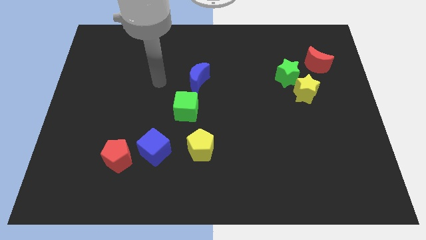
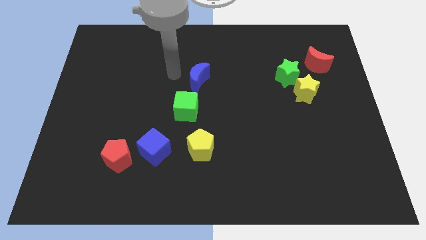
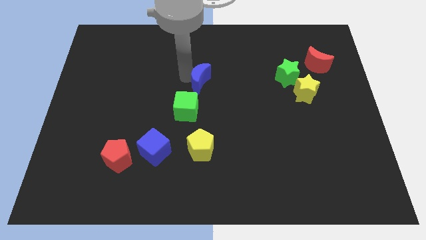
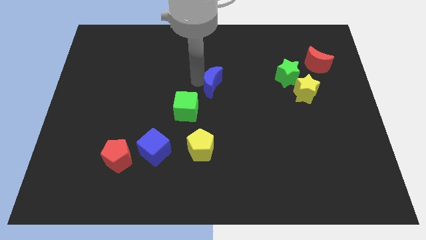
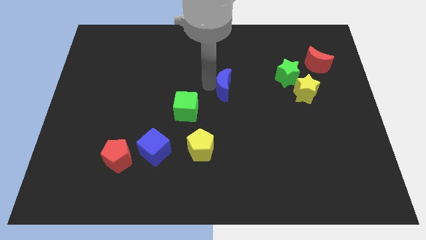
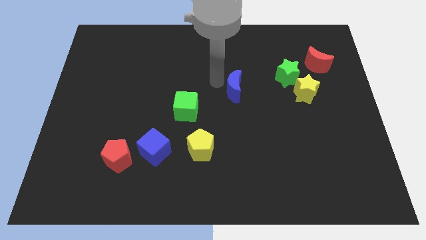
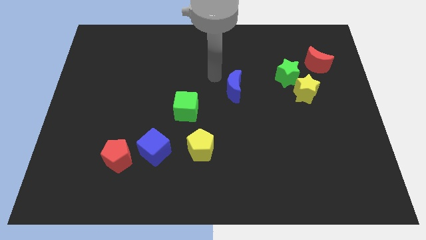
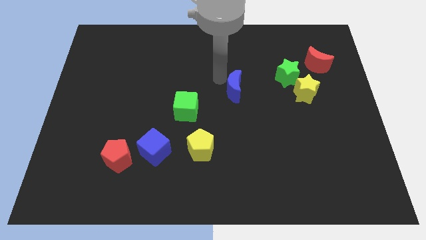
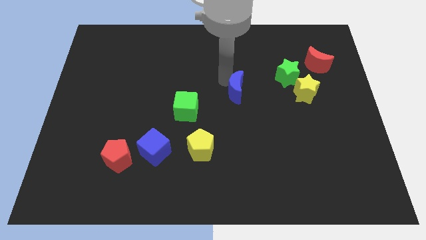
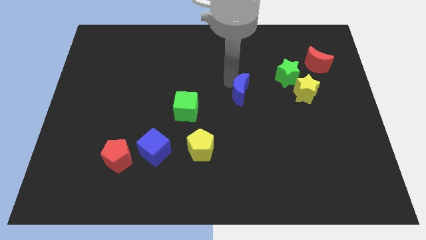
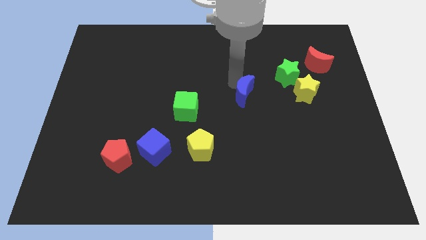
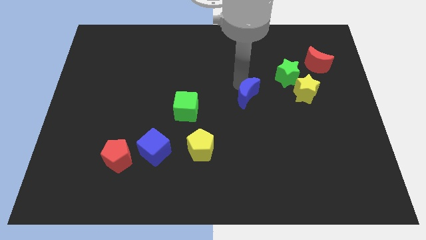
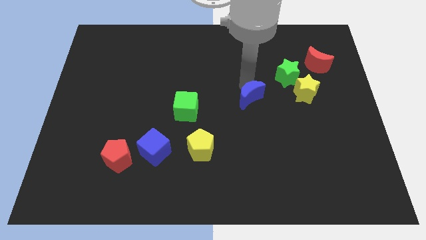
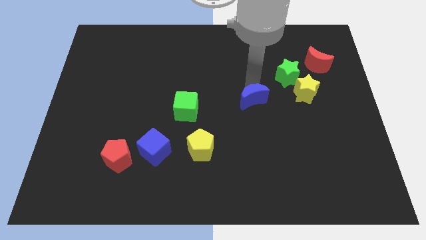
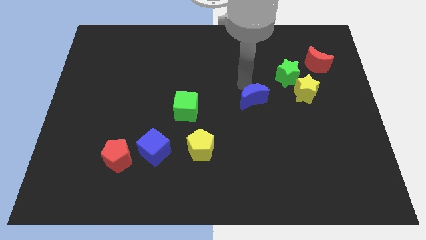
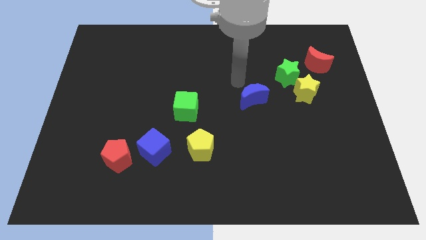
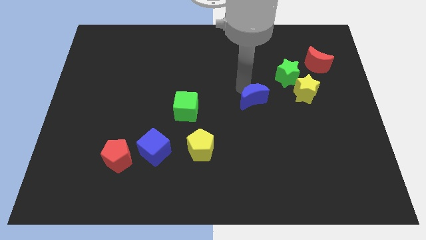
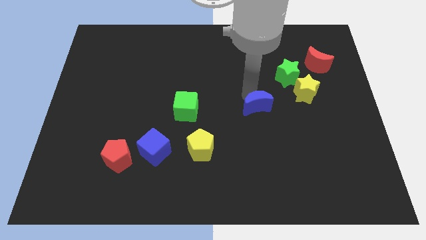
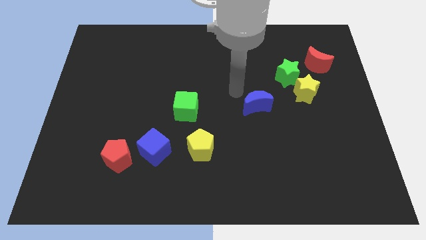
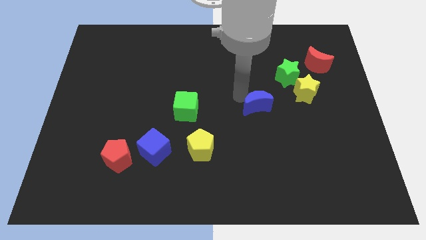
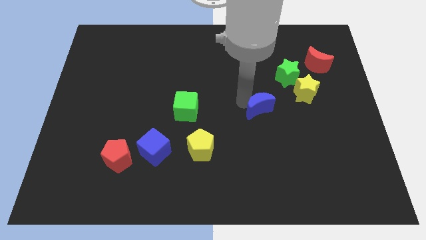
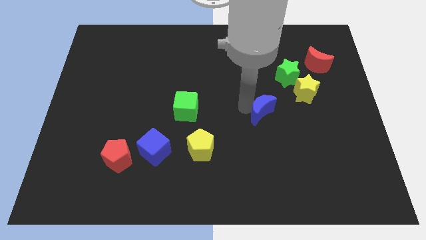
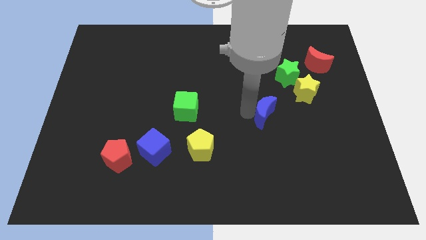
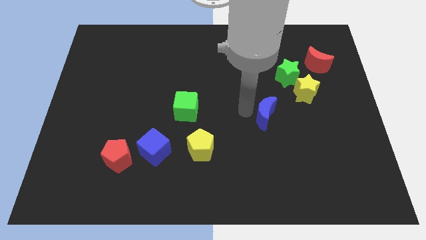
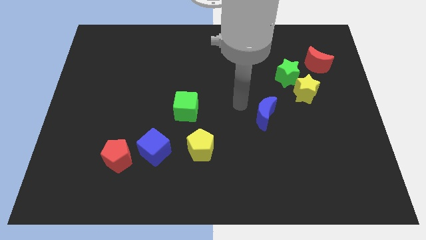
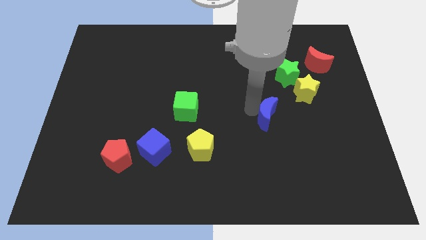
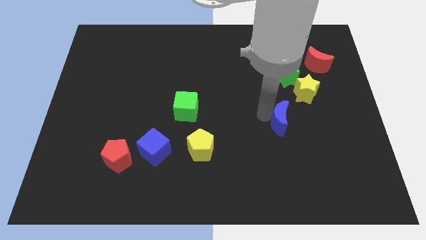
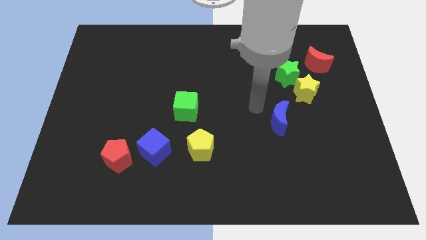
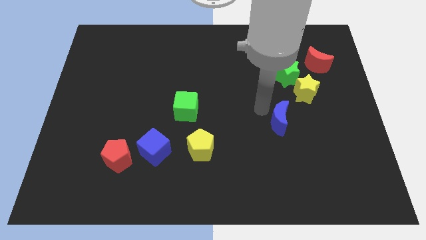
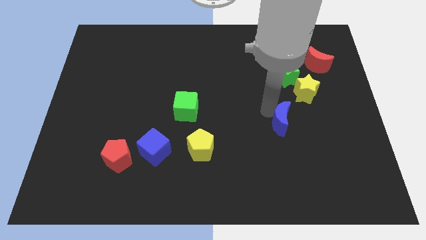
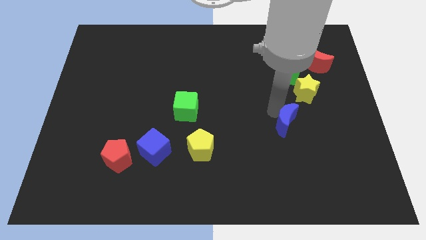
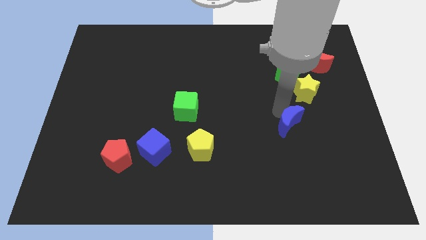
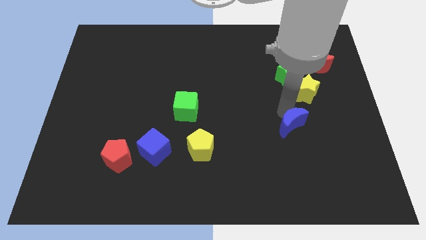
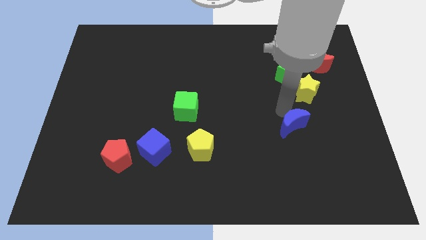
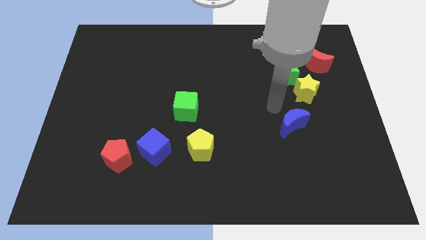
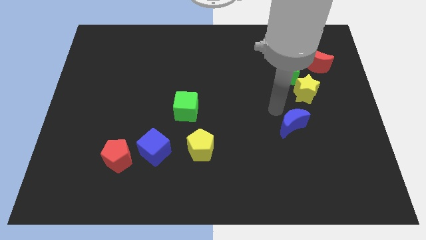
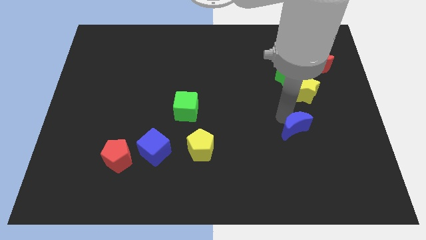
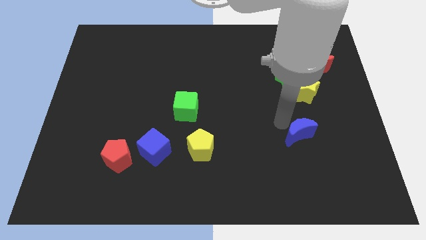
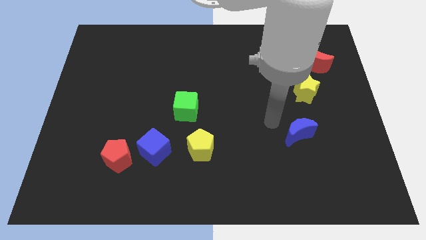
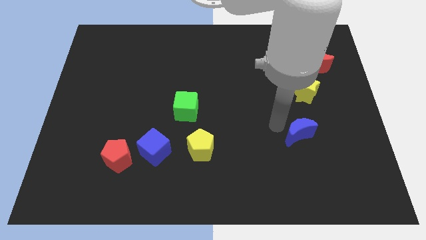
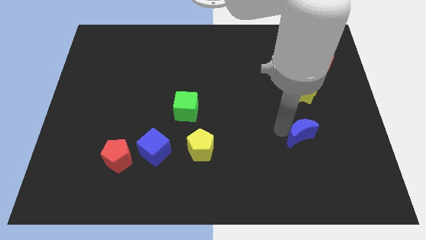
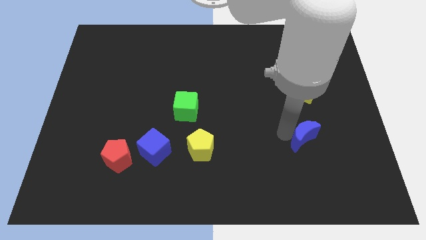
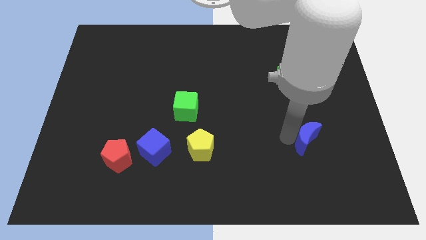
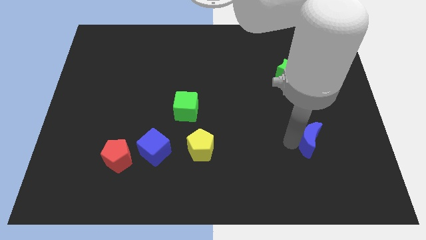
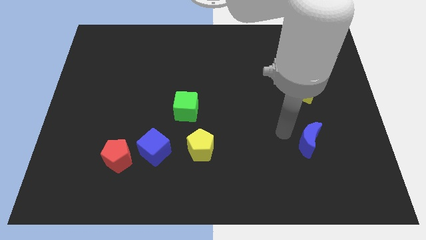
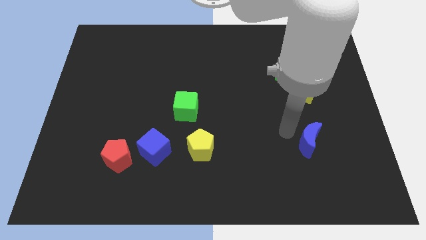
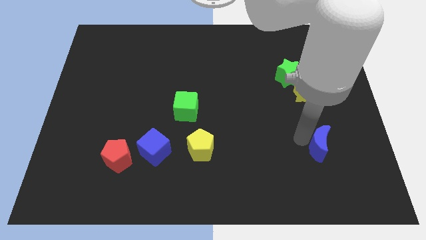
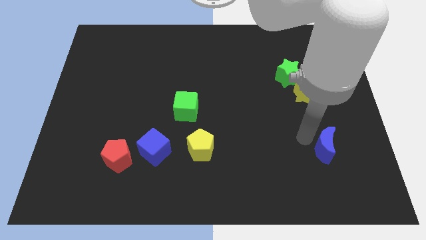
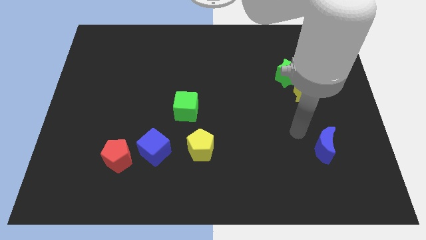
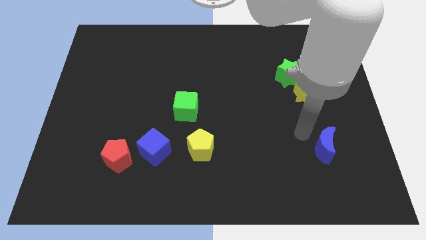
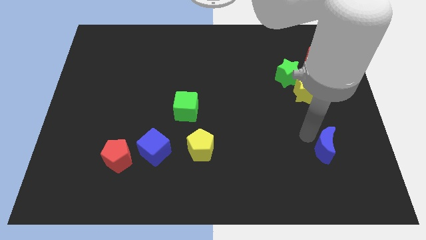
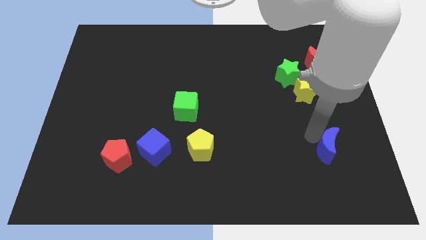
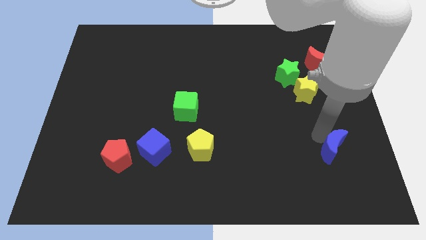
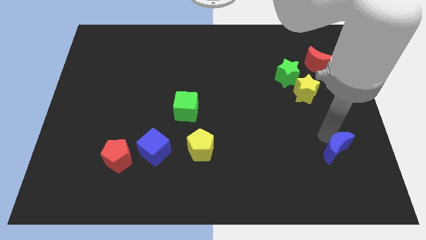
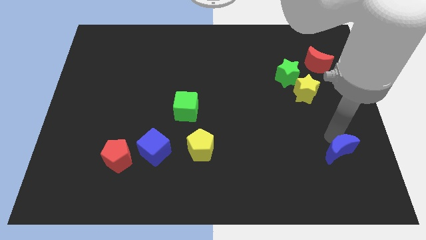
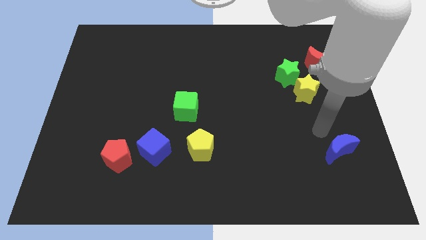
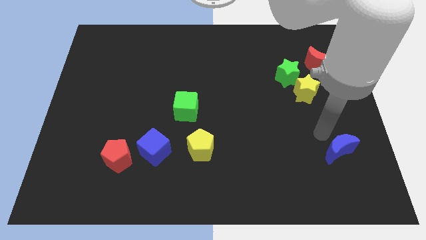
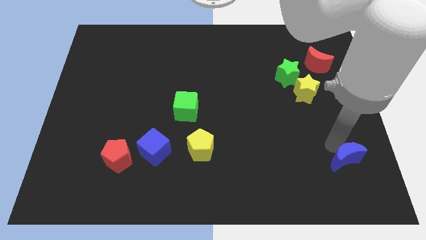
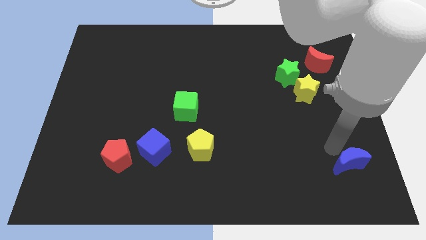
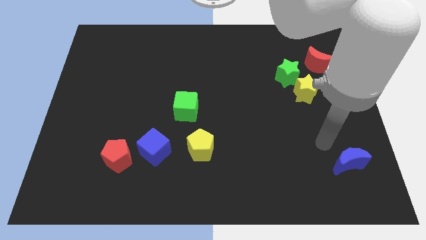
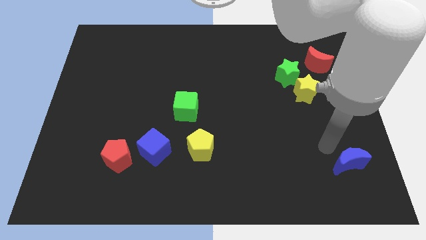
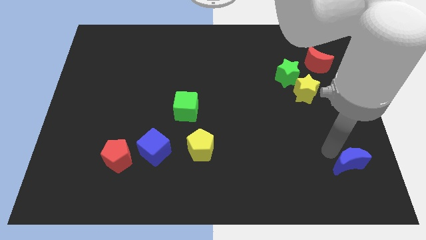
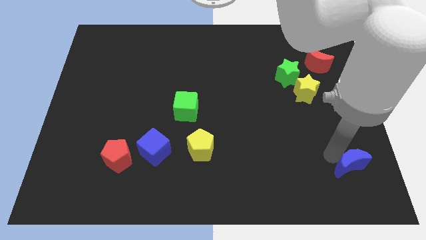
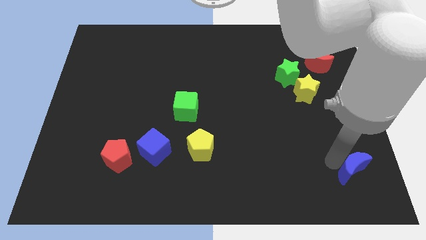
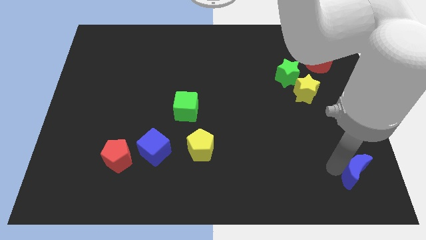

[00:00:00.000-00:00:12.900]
move the blue moon to the bottom right corner
